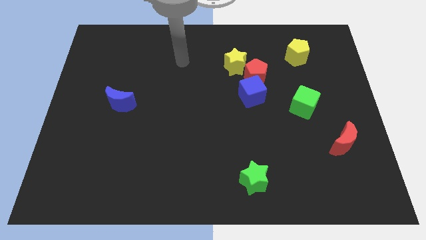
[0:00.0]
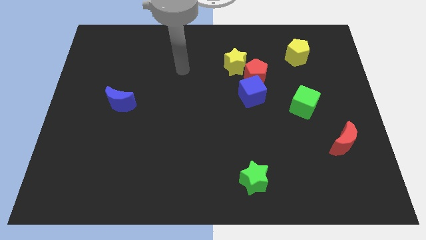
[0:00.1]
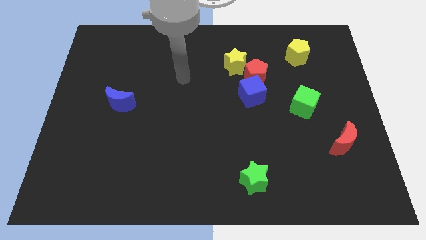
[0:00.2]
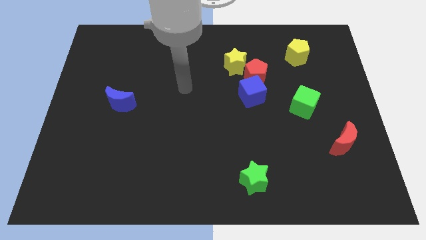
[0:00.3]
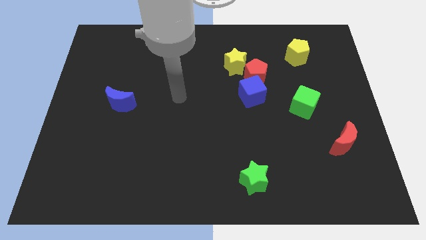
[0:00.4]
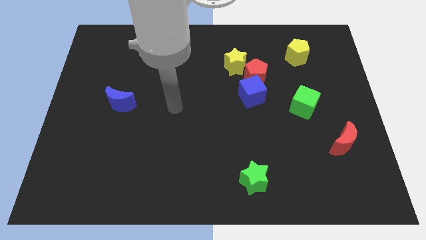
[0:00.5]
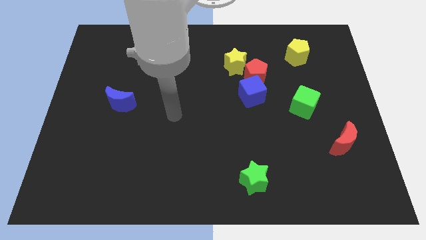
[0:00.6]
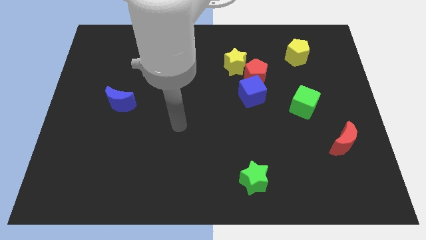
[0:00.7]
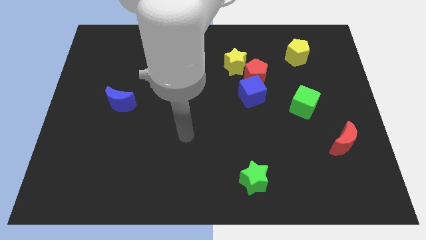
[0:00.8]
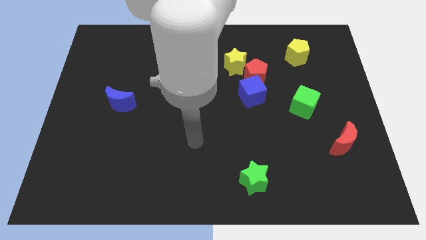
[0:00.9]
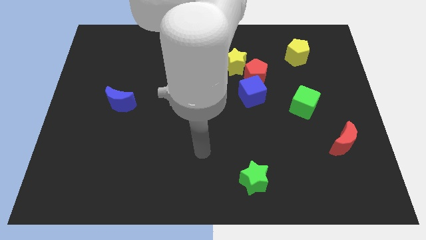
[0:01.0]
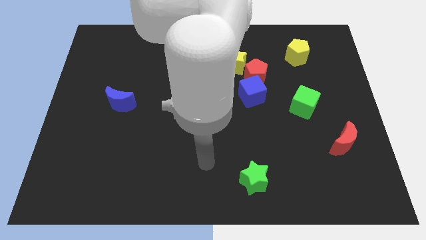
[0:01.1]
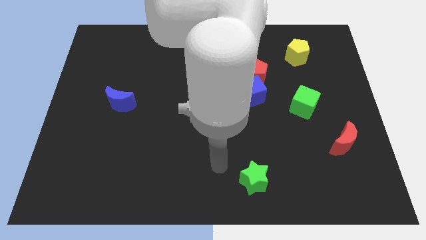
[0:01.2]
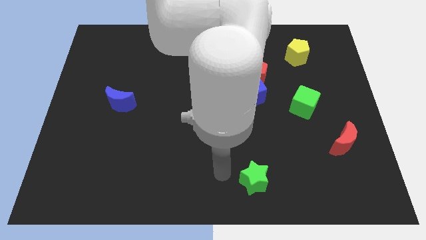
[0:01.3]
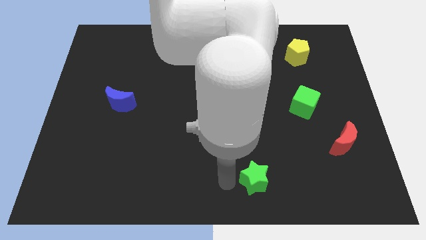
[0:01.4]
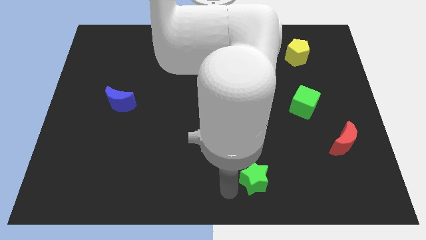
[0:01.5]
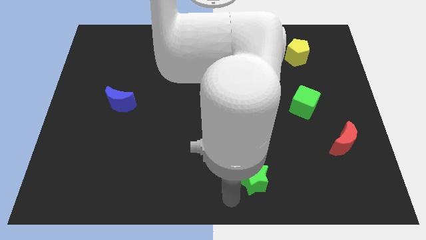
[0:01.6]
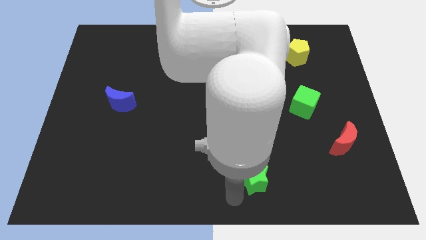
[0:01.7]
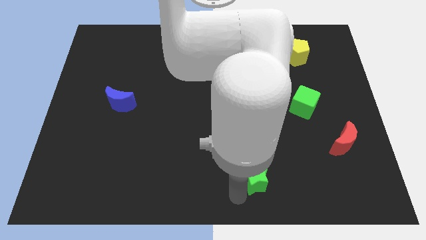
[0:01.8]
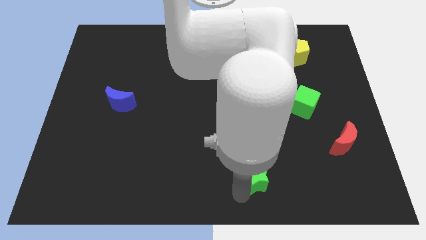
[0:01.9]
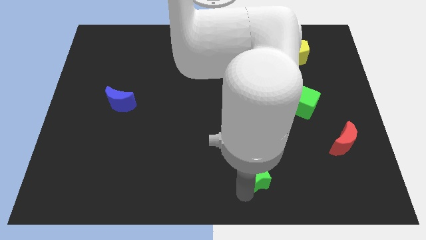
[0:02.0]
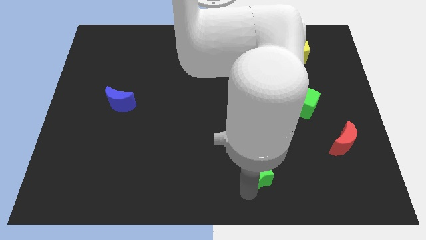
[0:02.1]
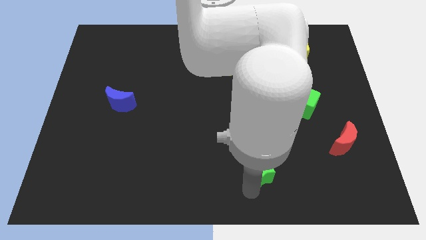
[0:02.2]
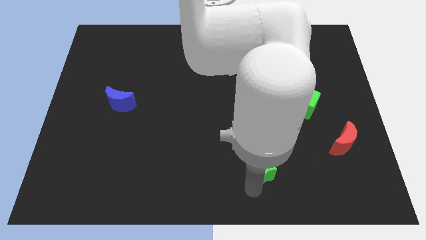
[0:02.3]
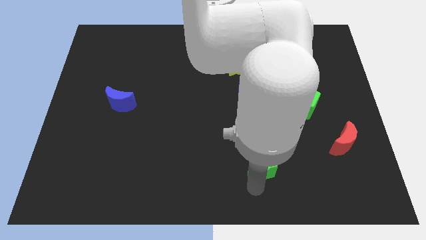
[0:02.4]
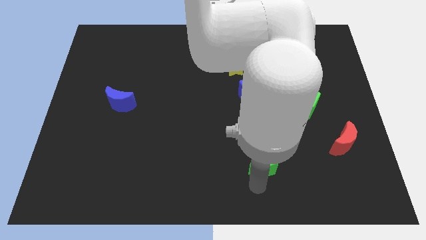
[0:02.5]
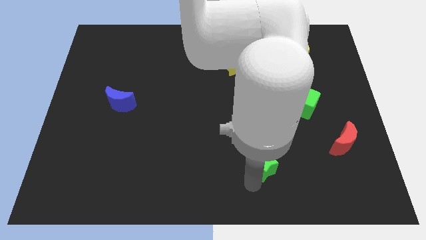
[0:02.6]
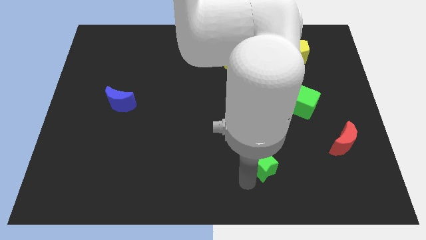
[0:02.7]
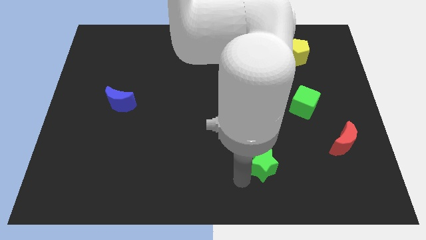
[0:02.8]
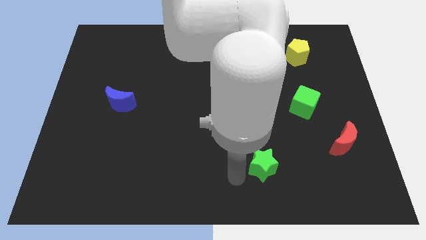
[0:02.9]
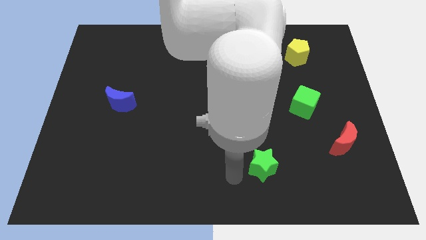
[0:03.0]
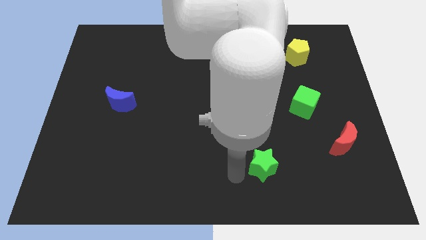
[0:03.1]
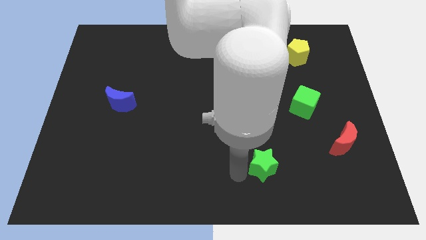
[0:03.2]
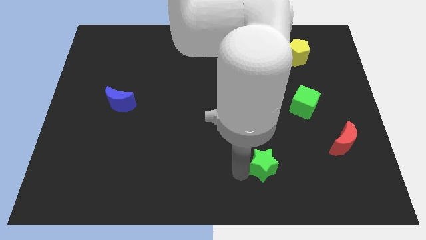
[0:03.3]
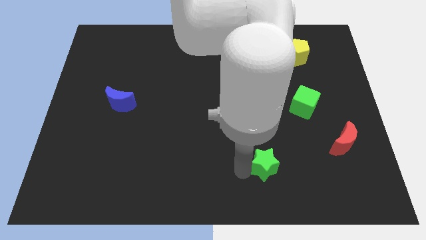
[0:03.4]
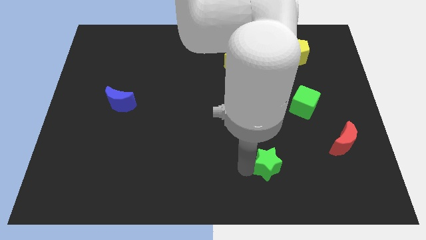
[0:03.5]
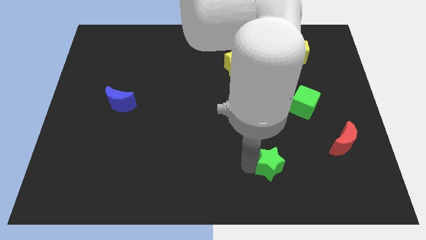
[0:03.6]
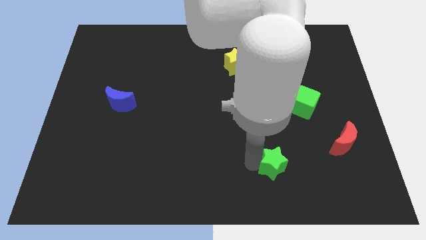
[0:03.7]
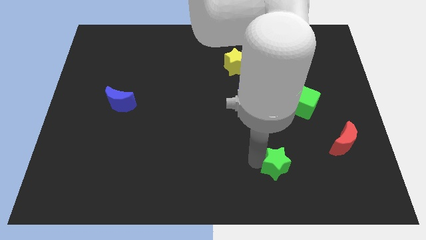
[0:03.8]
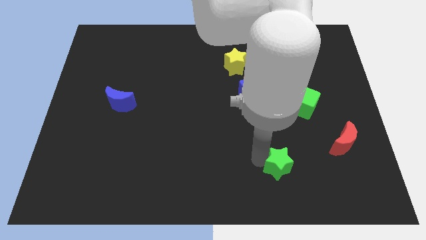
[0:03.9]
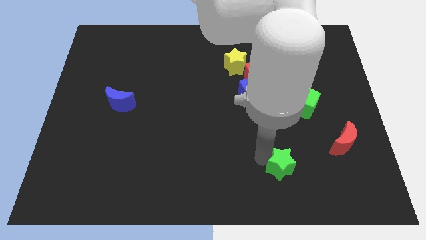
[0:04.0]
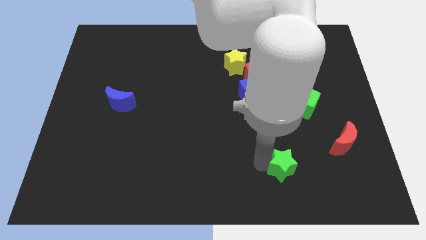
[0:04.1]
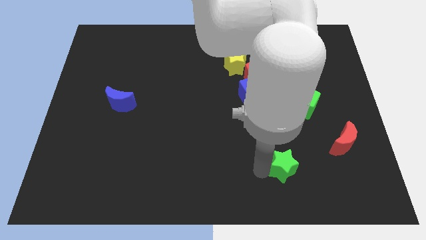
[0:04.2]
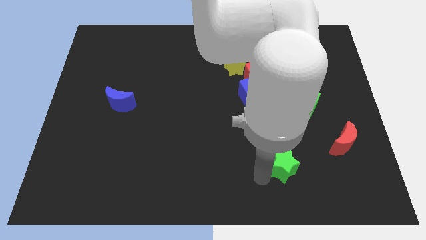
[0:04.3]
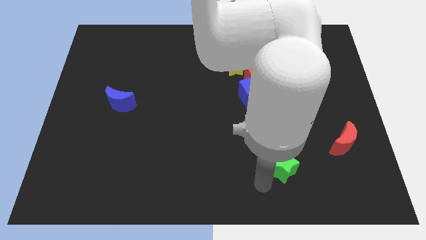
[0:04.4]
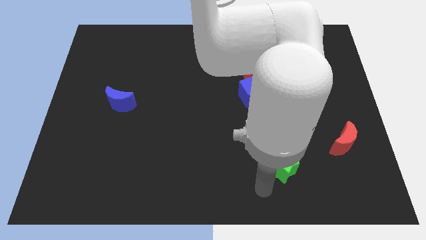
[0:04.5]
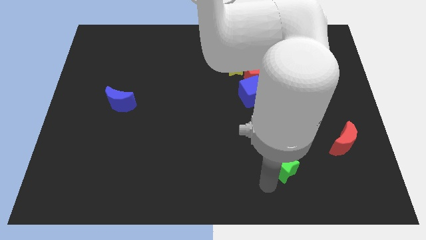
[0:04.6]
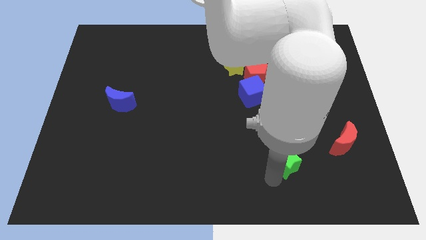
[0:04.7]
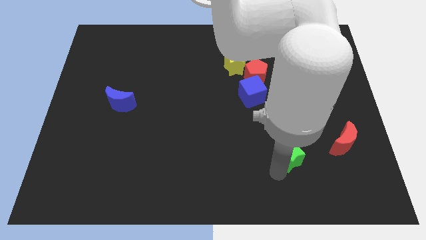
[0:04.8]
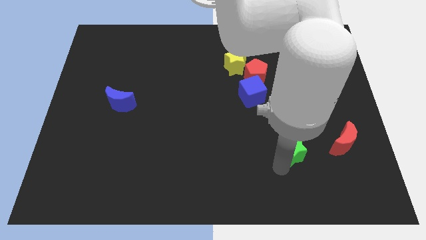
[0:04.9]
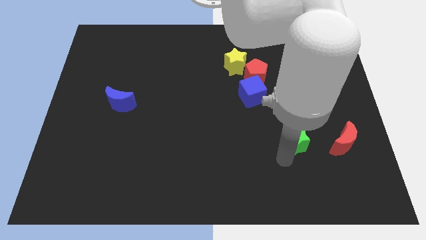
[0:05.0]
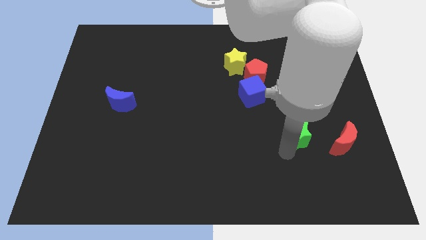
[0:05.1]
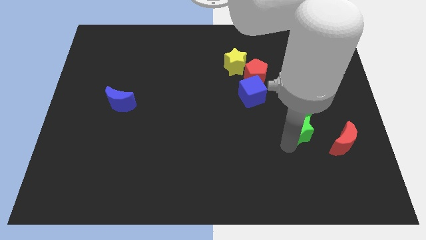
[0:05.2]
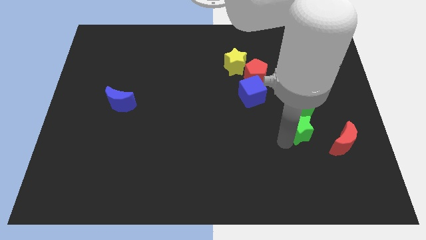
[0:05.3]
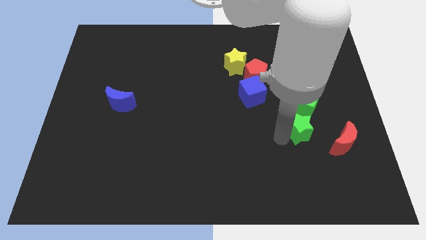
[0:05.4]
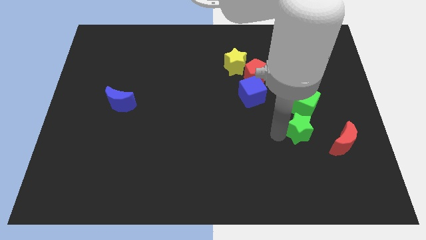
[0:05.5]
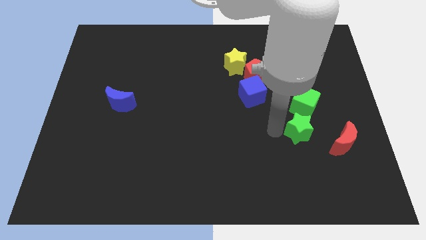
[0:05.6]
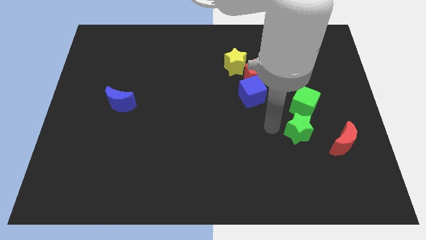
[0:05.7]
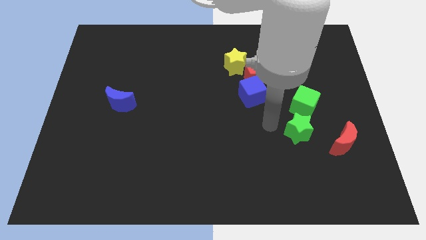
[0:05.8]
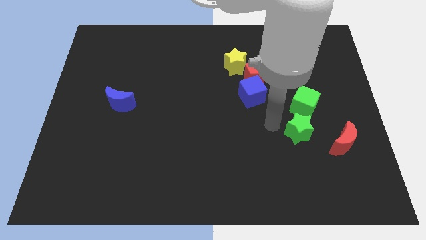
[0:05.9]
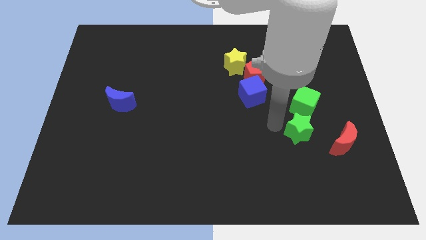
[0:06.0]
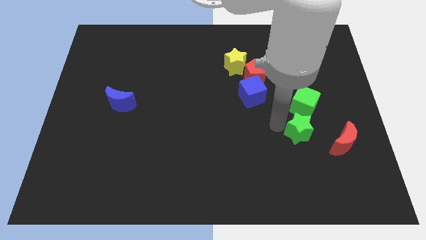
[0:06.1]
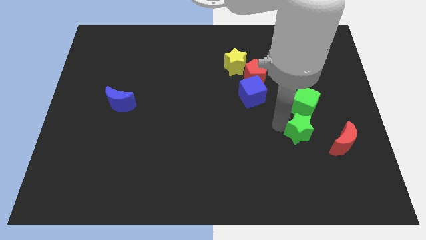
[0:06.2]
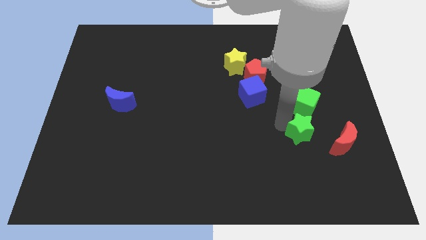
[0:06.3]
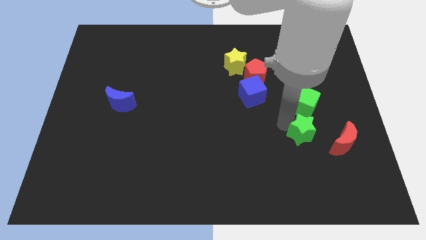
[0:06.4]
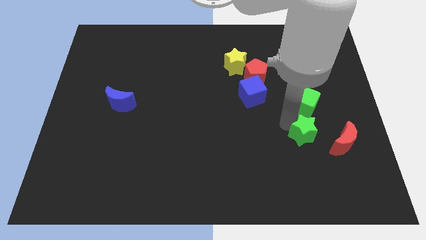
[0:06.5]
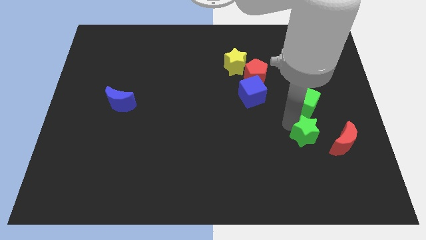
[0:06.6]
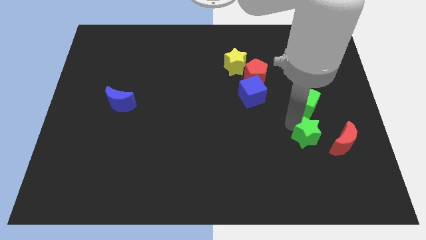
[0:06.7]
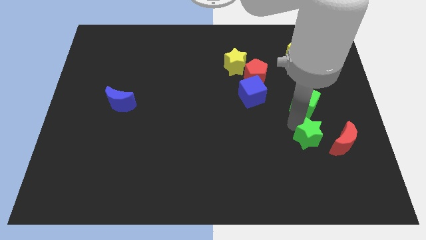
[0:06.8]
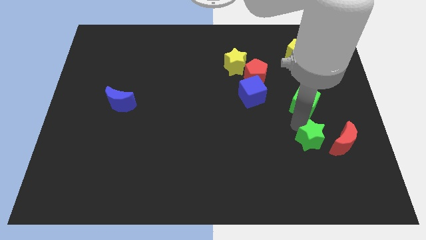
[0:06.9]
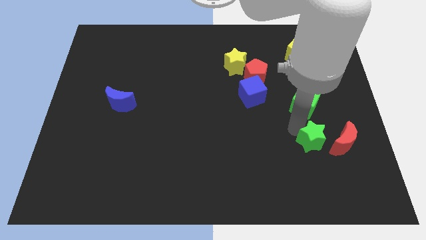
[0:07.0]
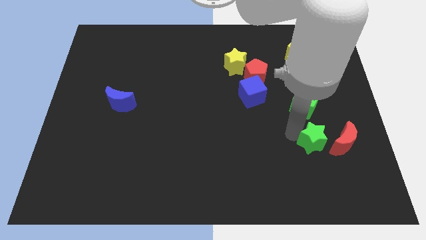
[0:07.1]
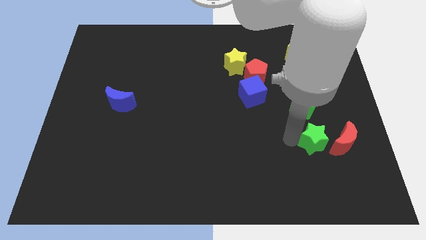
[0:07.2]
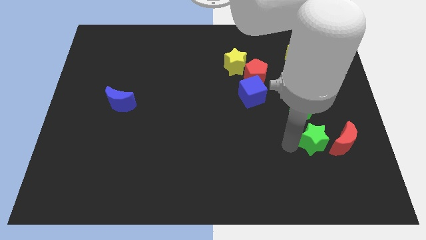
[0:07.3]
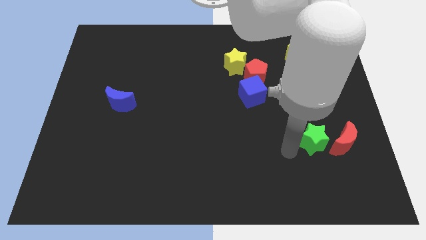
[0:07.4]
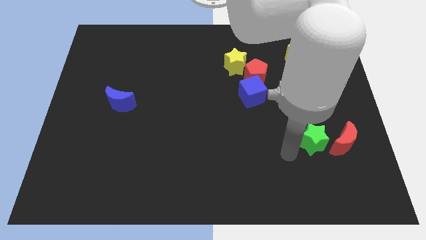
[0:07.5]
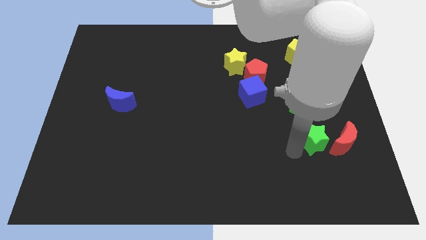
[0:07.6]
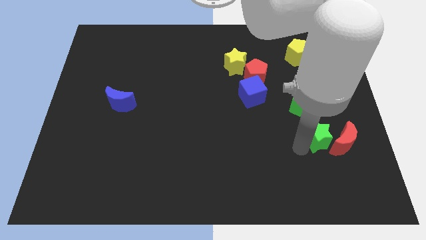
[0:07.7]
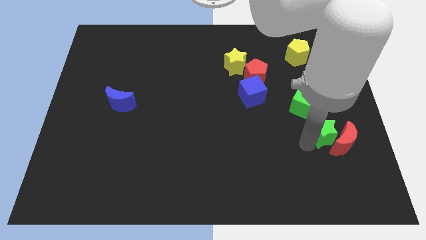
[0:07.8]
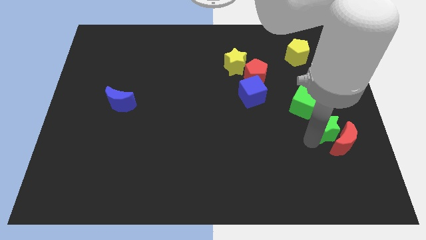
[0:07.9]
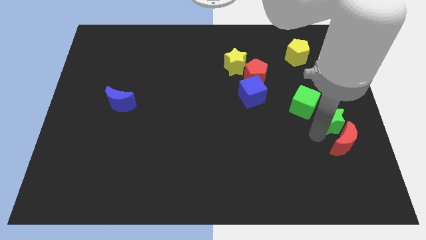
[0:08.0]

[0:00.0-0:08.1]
push the green star to the right side of the board
